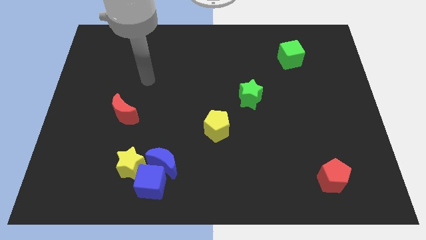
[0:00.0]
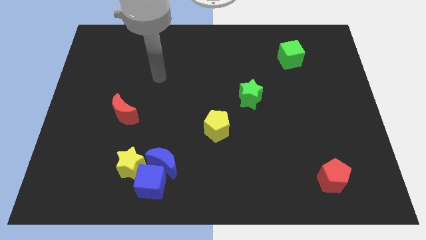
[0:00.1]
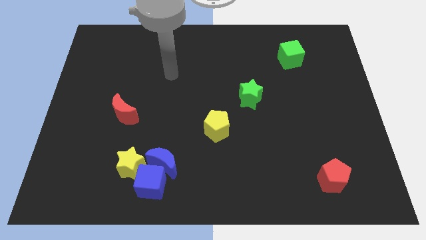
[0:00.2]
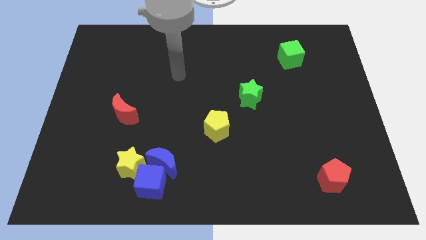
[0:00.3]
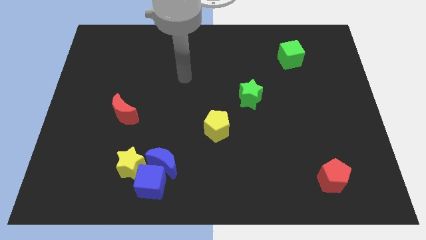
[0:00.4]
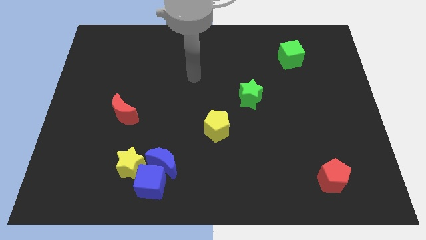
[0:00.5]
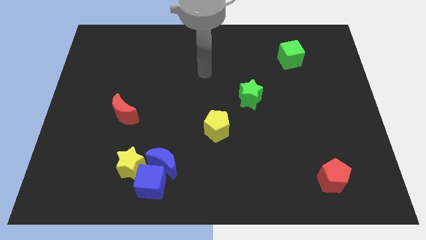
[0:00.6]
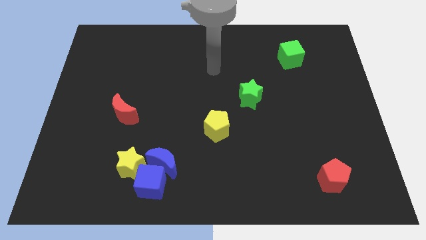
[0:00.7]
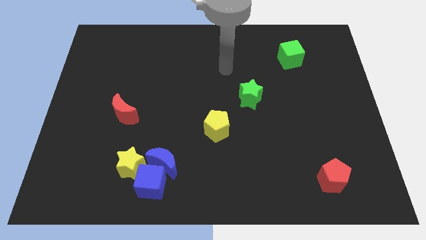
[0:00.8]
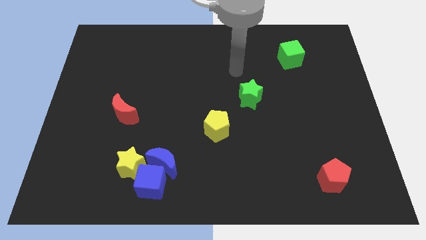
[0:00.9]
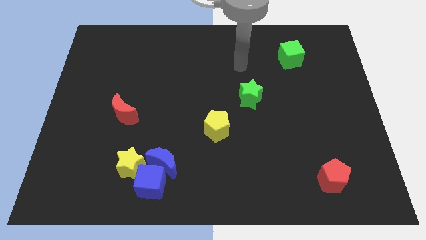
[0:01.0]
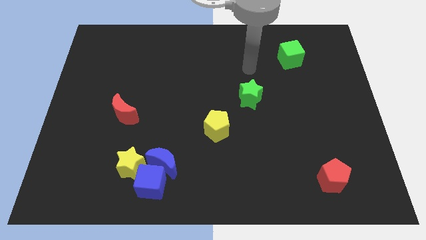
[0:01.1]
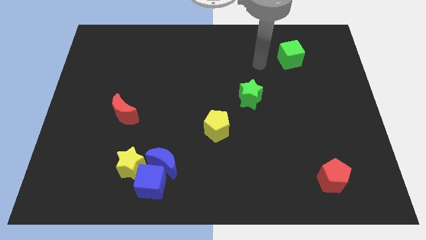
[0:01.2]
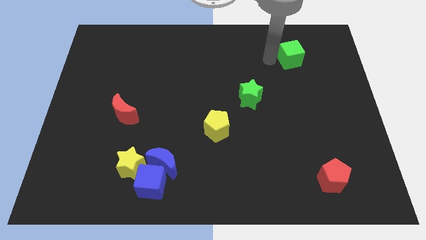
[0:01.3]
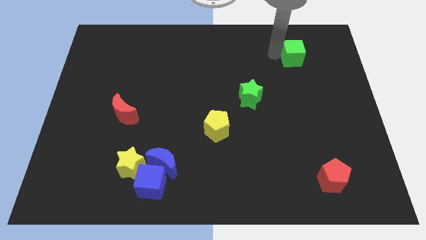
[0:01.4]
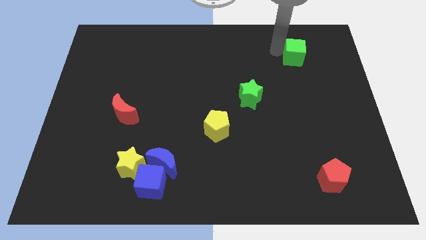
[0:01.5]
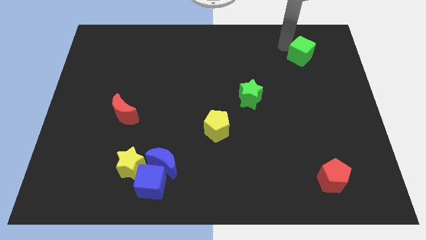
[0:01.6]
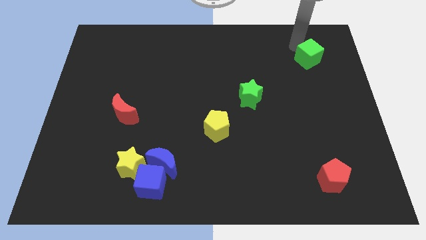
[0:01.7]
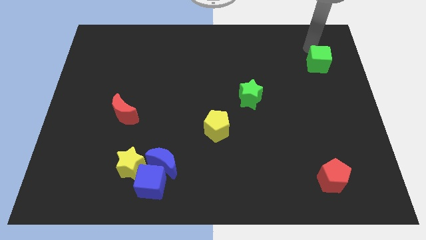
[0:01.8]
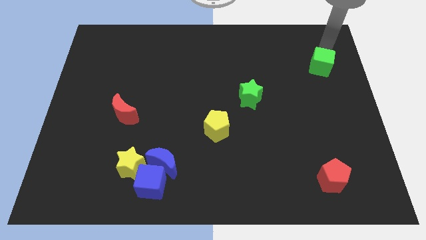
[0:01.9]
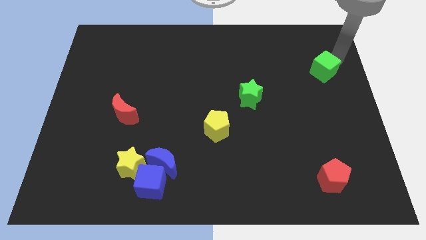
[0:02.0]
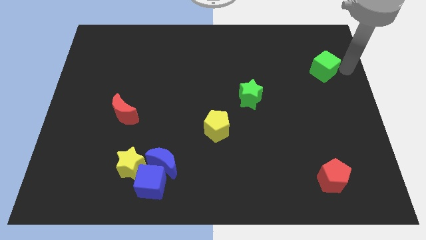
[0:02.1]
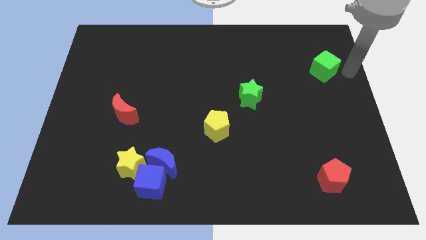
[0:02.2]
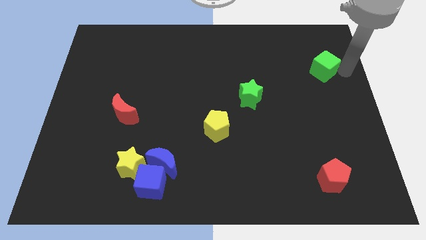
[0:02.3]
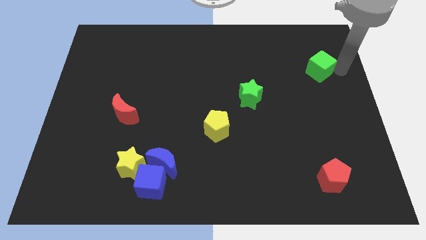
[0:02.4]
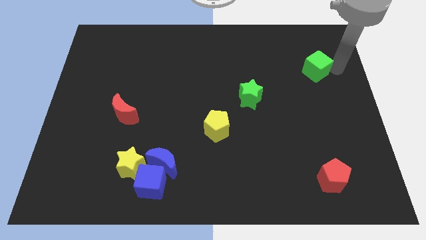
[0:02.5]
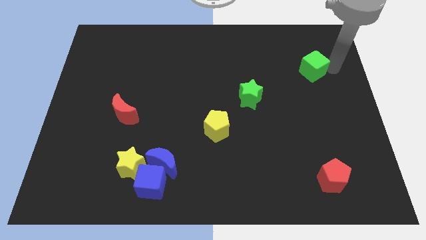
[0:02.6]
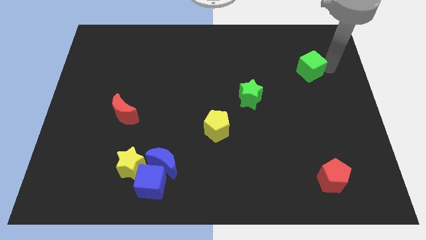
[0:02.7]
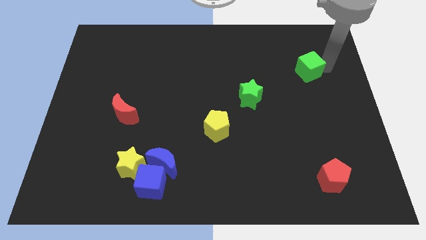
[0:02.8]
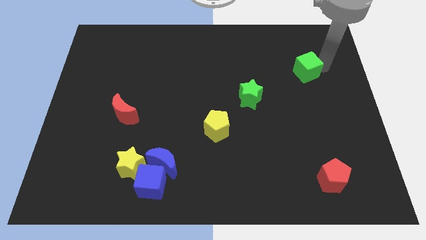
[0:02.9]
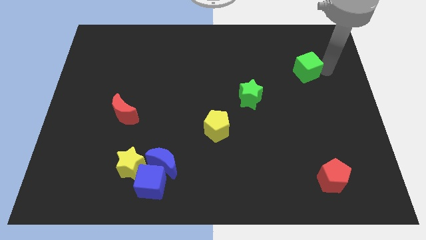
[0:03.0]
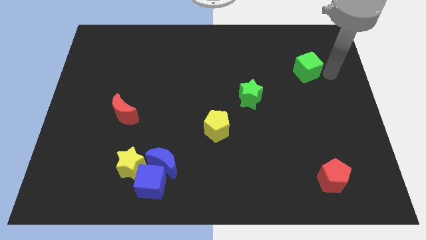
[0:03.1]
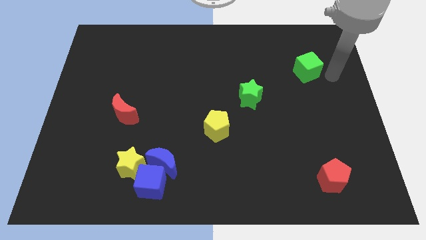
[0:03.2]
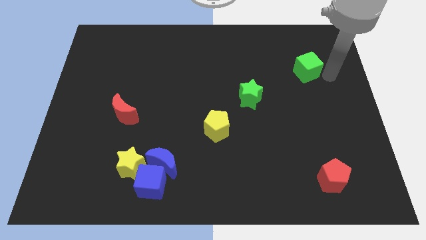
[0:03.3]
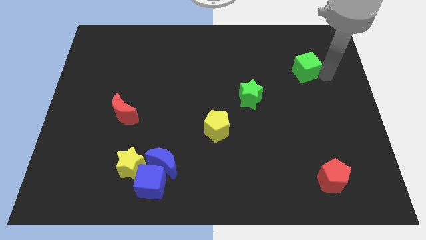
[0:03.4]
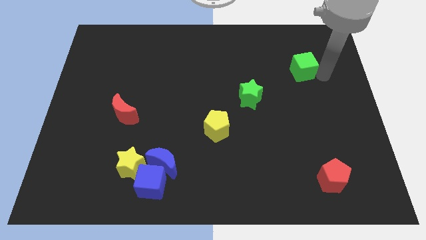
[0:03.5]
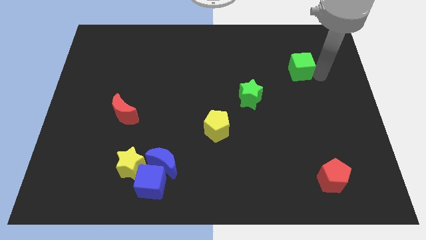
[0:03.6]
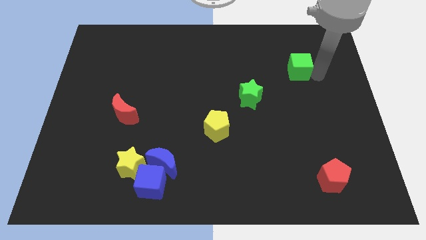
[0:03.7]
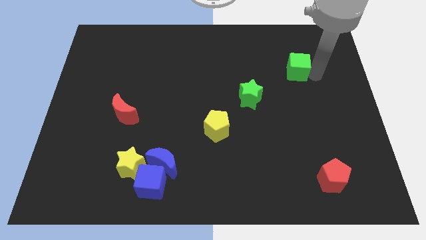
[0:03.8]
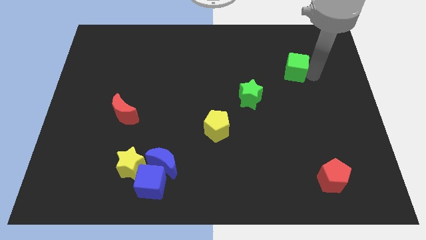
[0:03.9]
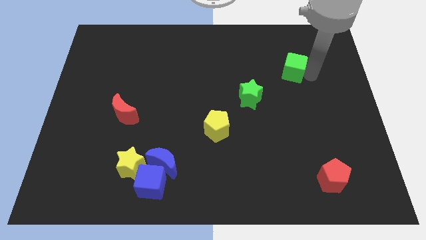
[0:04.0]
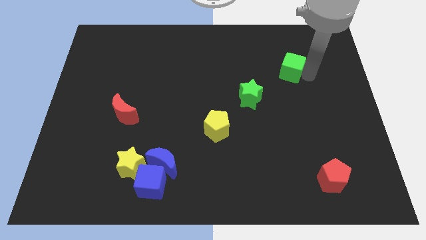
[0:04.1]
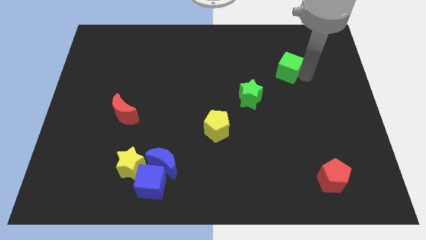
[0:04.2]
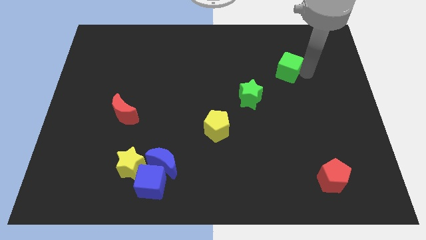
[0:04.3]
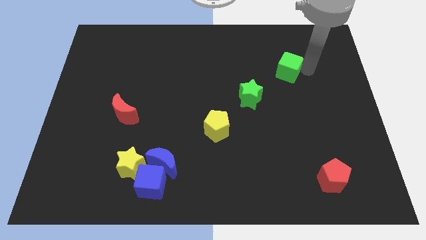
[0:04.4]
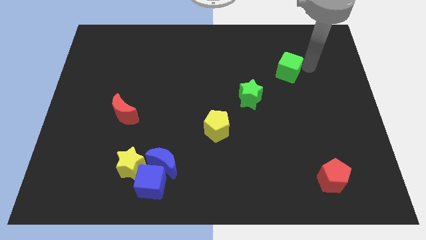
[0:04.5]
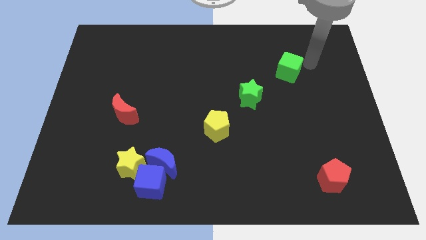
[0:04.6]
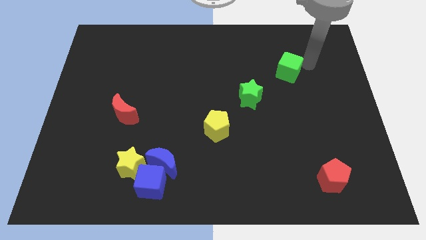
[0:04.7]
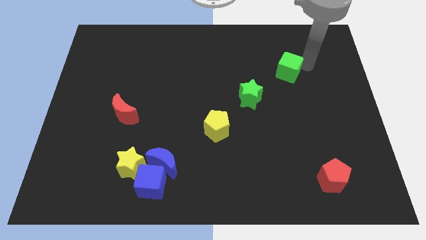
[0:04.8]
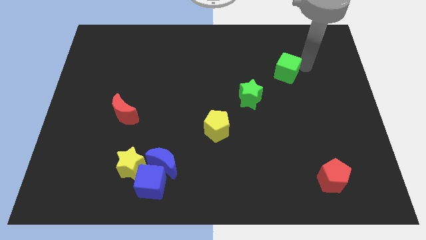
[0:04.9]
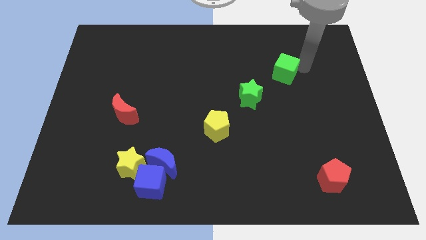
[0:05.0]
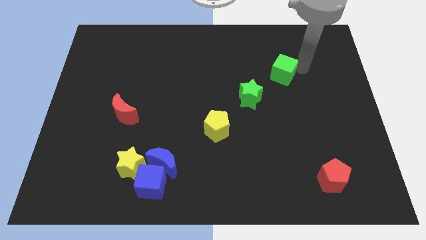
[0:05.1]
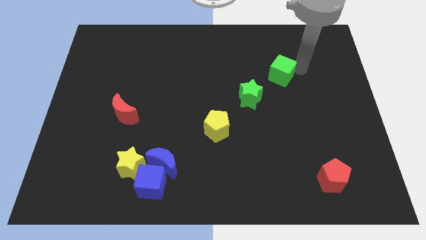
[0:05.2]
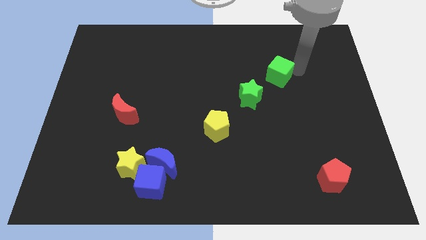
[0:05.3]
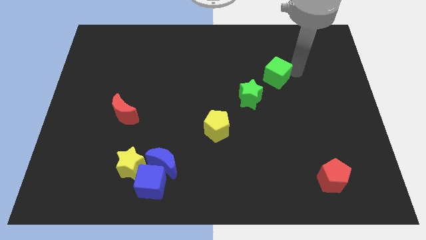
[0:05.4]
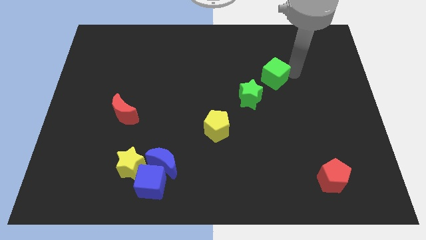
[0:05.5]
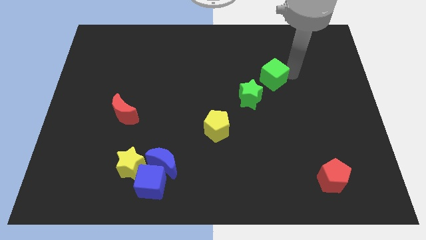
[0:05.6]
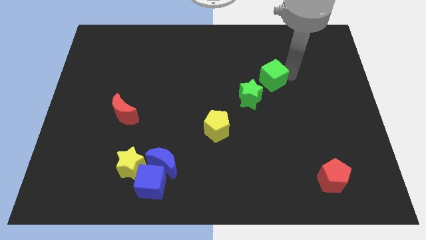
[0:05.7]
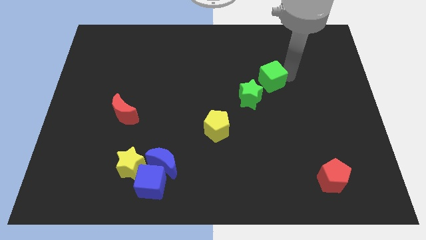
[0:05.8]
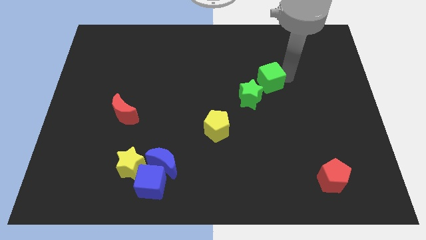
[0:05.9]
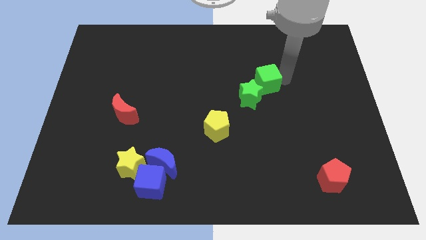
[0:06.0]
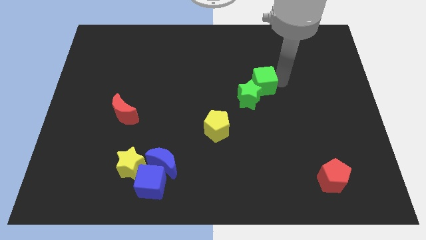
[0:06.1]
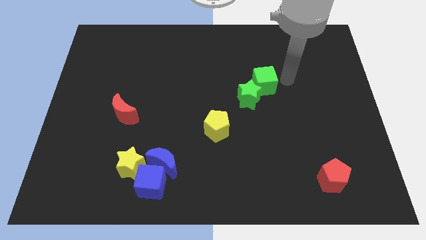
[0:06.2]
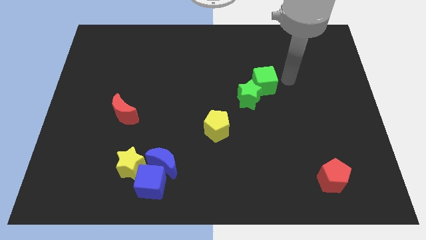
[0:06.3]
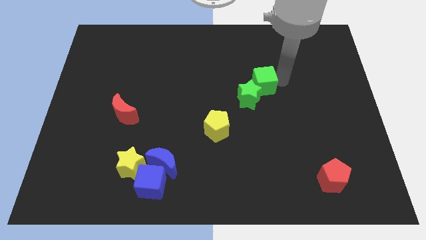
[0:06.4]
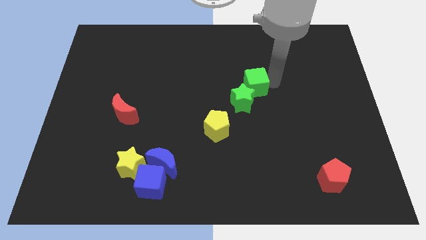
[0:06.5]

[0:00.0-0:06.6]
put the green cube to the middle

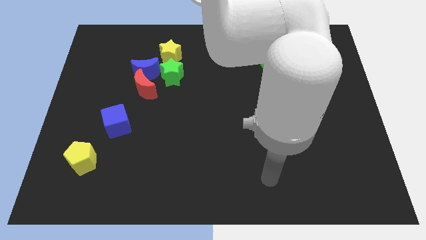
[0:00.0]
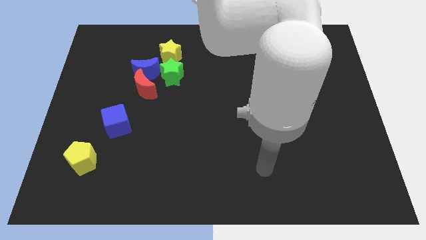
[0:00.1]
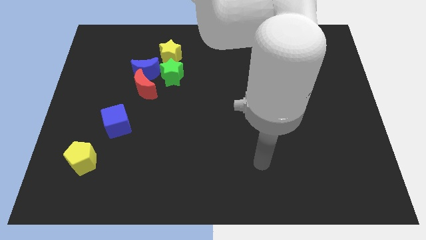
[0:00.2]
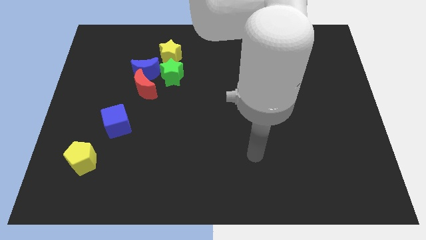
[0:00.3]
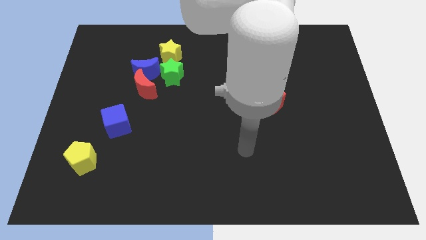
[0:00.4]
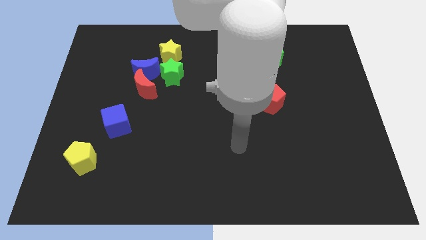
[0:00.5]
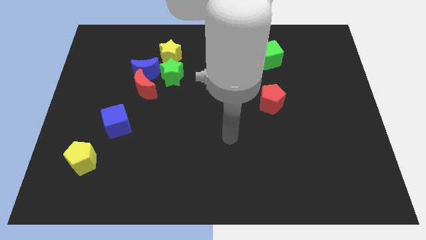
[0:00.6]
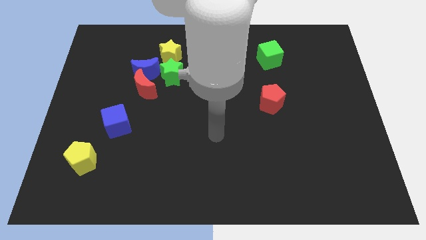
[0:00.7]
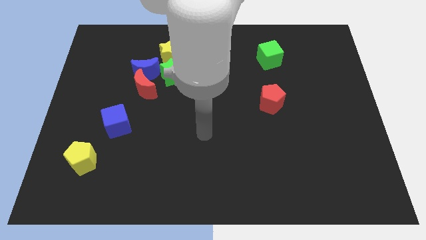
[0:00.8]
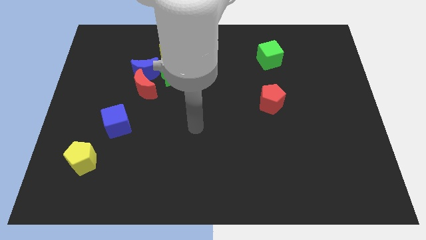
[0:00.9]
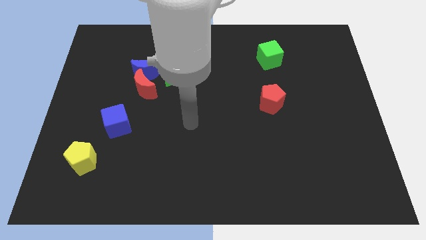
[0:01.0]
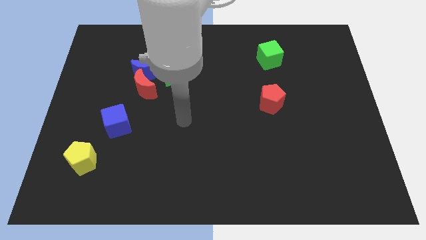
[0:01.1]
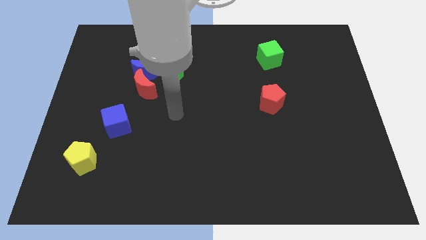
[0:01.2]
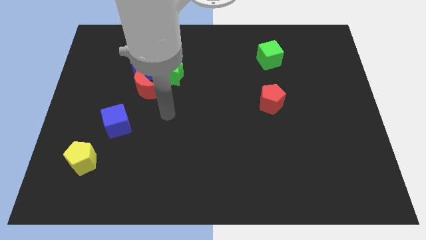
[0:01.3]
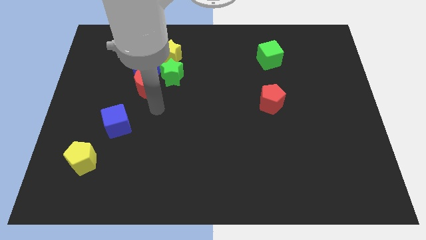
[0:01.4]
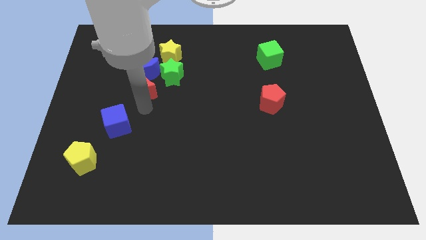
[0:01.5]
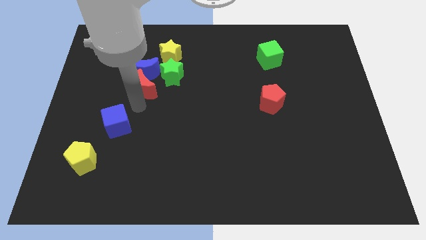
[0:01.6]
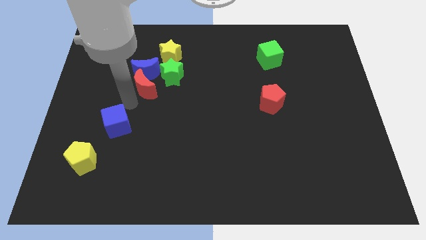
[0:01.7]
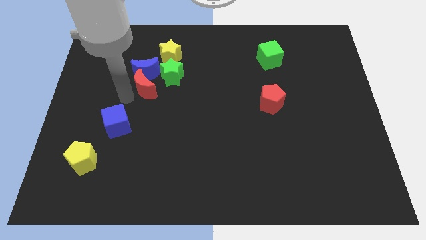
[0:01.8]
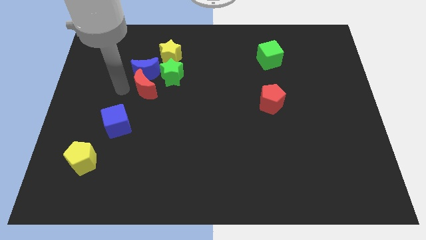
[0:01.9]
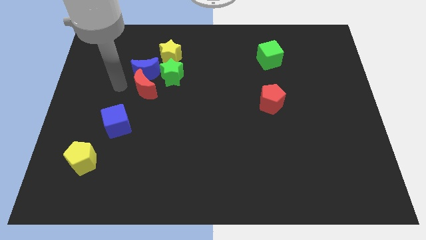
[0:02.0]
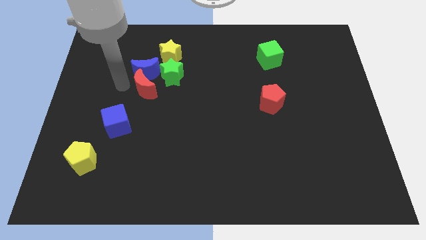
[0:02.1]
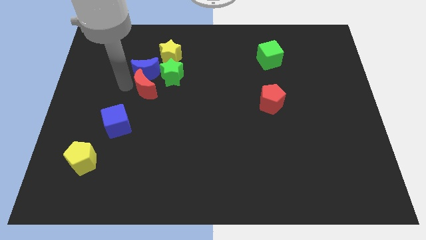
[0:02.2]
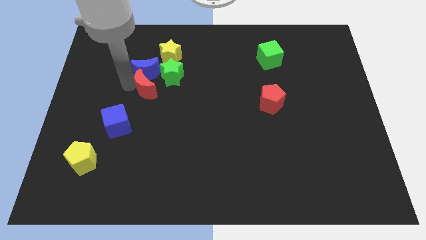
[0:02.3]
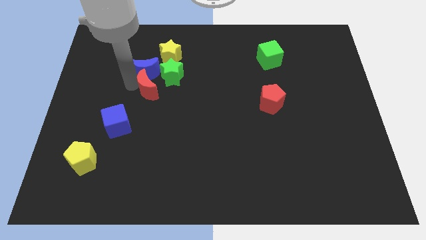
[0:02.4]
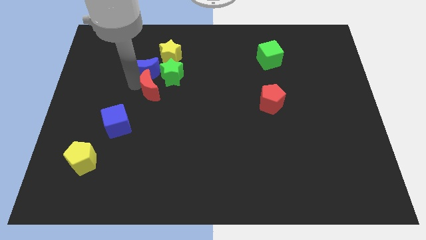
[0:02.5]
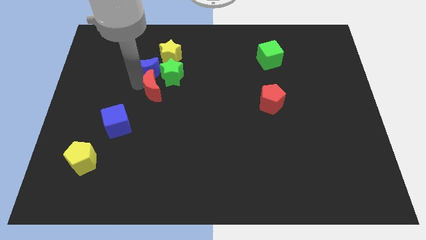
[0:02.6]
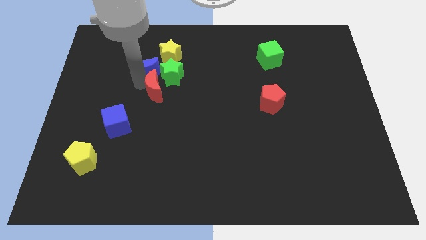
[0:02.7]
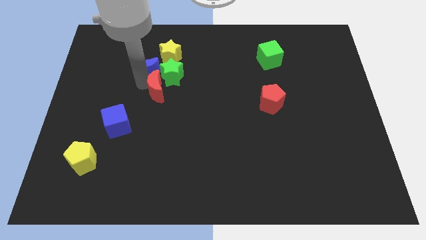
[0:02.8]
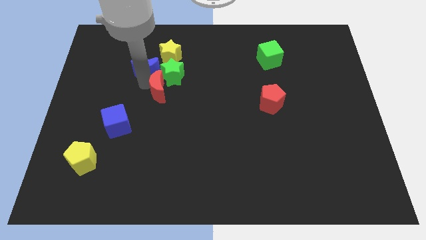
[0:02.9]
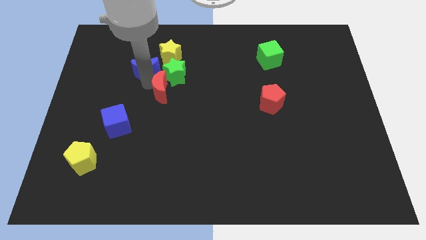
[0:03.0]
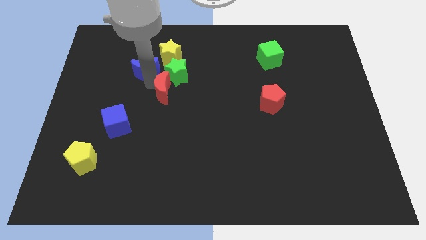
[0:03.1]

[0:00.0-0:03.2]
slide the red moon to the middle
